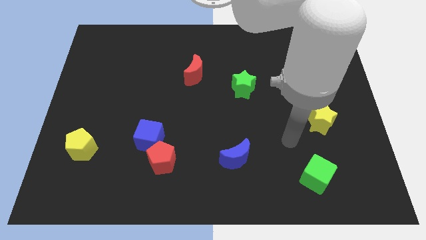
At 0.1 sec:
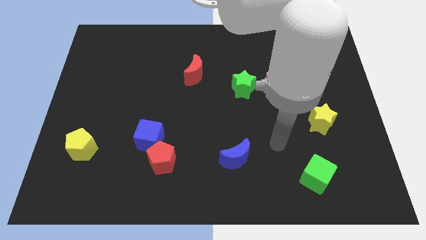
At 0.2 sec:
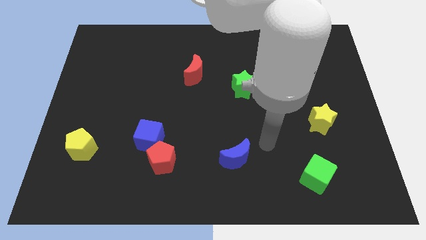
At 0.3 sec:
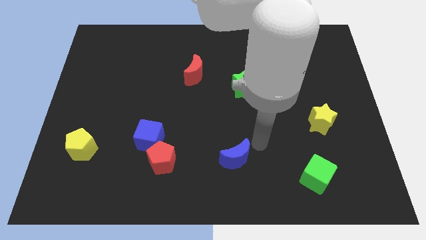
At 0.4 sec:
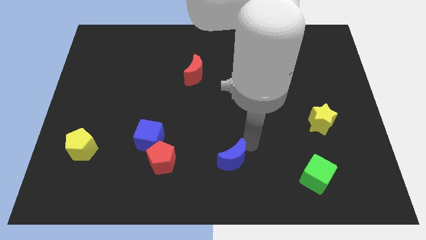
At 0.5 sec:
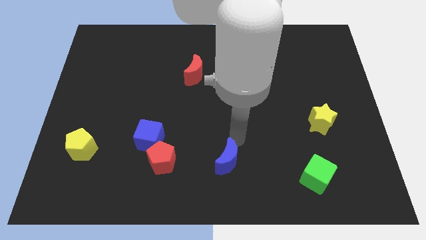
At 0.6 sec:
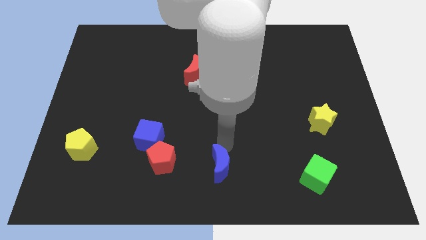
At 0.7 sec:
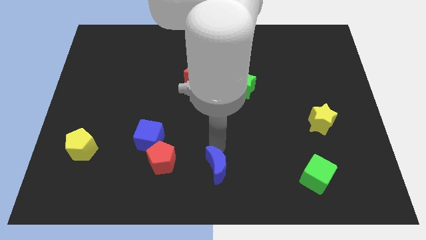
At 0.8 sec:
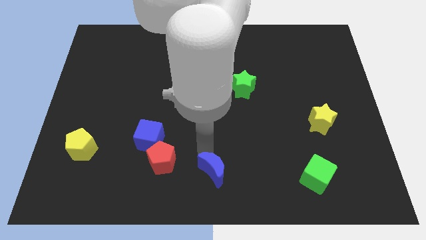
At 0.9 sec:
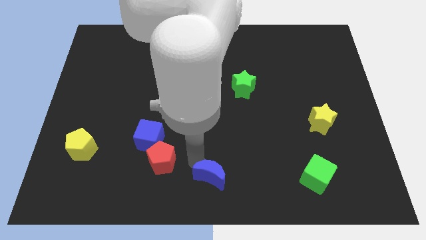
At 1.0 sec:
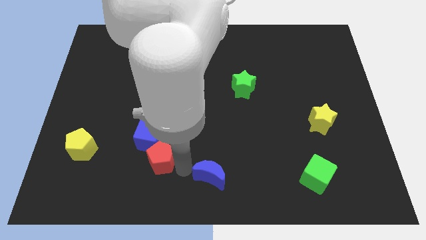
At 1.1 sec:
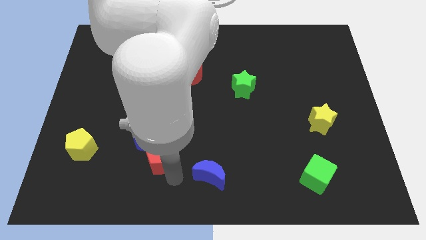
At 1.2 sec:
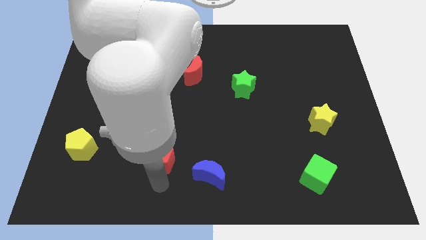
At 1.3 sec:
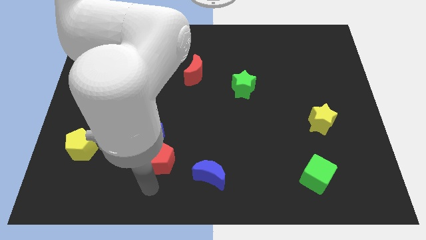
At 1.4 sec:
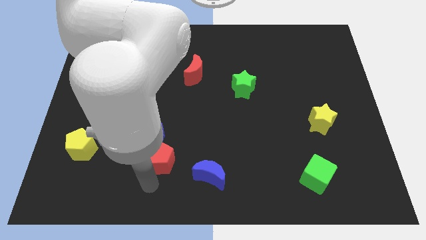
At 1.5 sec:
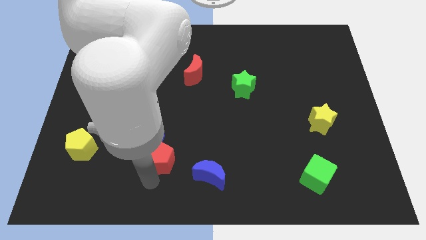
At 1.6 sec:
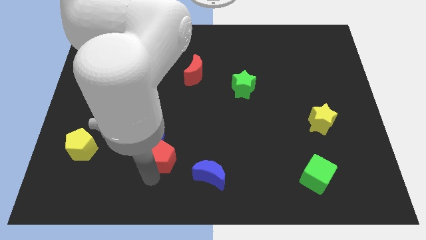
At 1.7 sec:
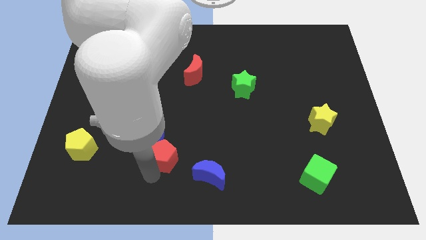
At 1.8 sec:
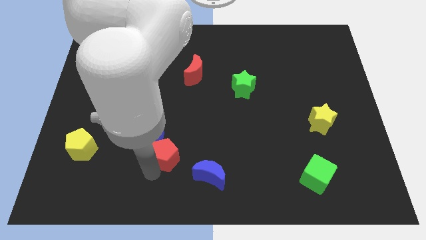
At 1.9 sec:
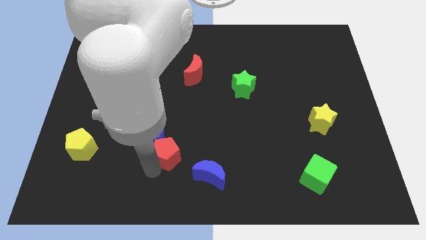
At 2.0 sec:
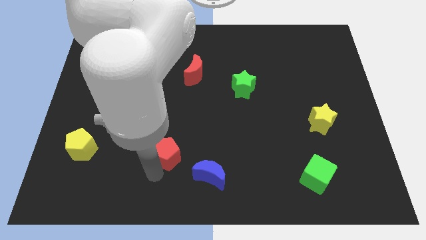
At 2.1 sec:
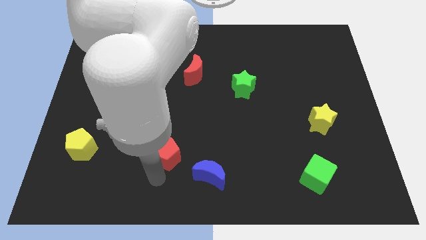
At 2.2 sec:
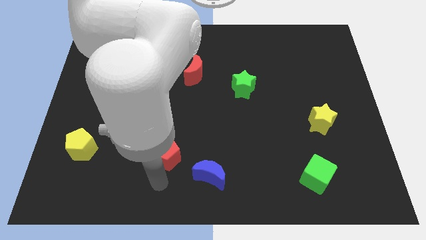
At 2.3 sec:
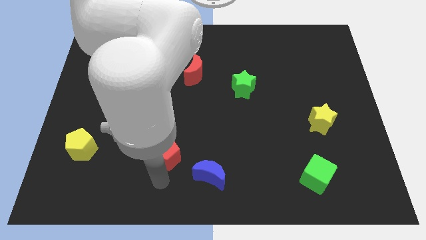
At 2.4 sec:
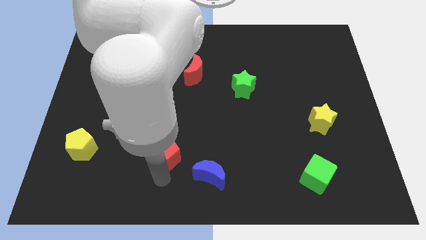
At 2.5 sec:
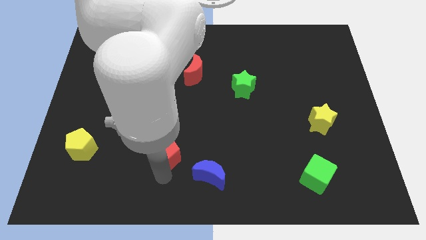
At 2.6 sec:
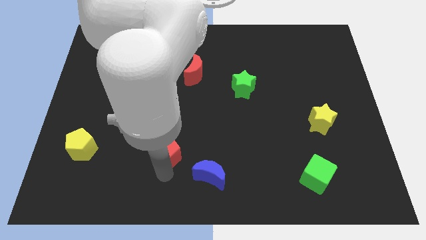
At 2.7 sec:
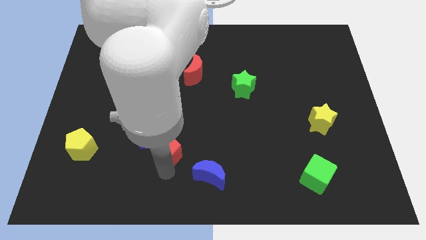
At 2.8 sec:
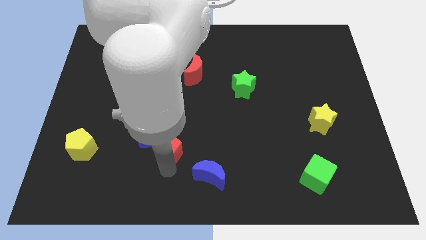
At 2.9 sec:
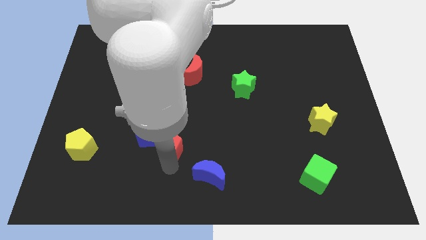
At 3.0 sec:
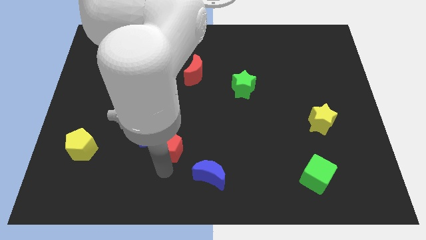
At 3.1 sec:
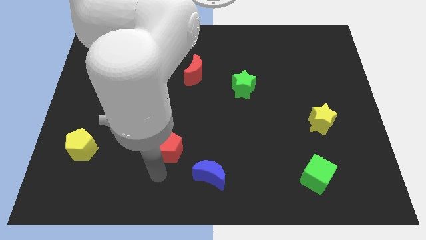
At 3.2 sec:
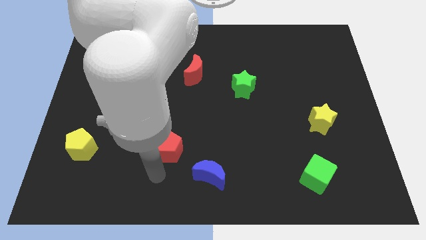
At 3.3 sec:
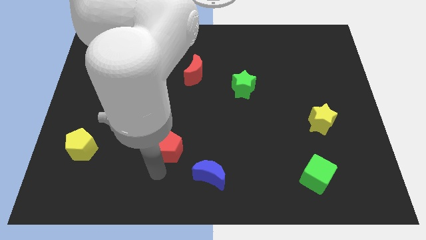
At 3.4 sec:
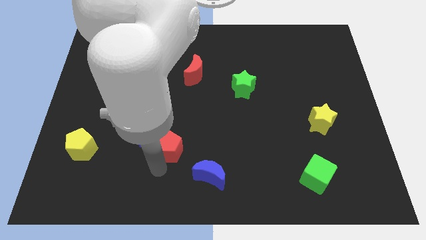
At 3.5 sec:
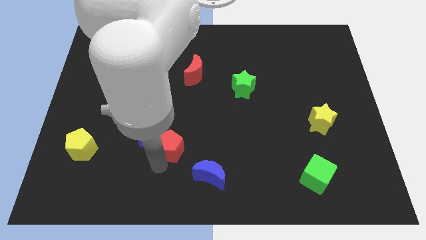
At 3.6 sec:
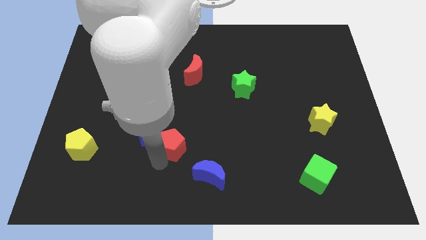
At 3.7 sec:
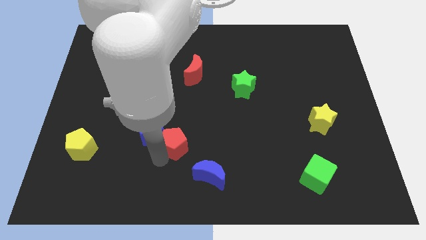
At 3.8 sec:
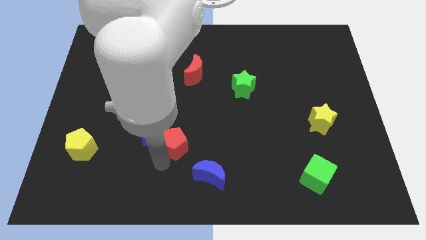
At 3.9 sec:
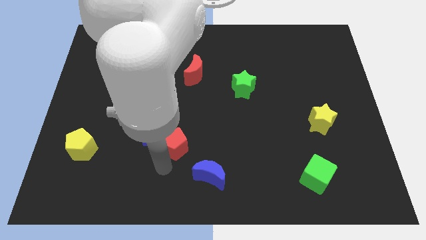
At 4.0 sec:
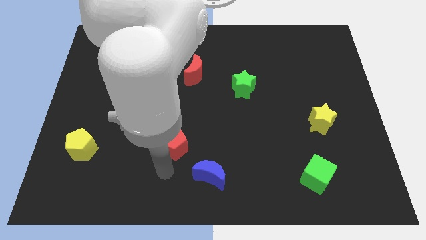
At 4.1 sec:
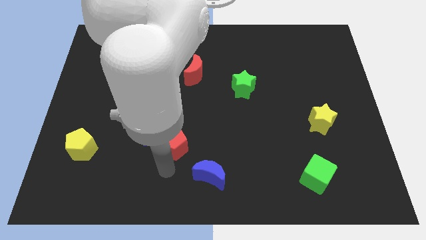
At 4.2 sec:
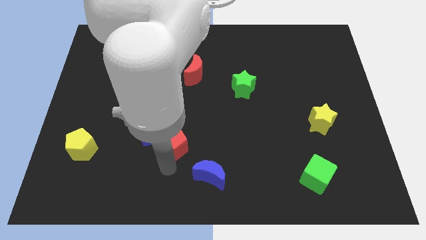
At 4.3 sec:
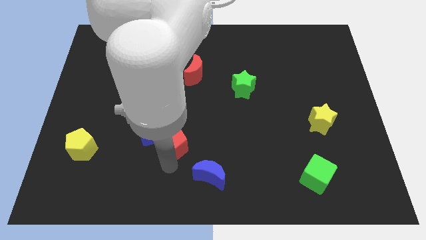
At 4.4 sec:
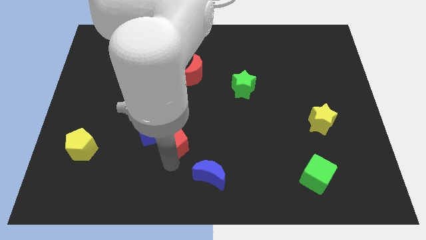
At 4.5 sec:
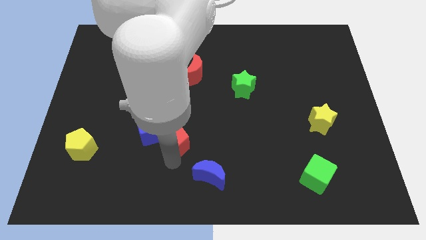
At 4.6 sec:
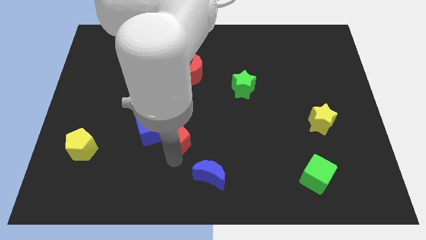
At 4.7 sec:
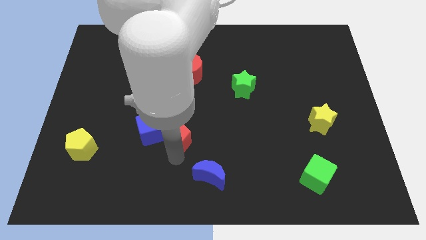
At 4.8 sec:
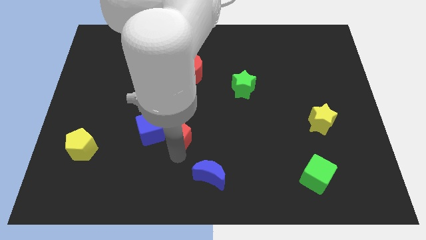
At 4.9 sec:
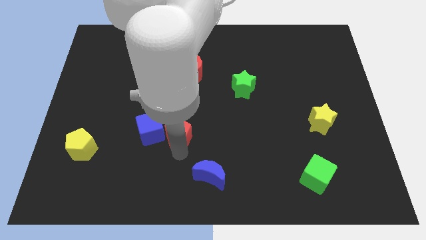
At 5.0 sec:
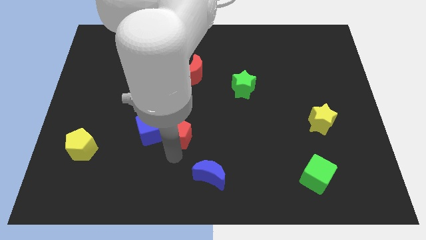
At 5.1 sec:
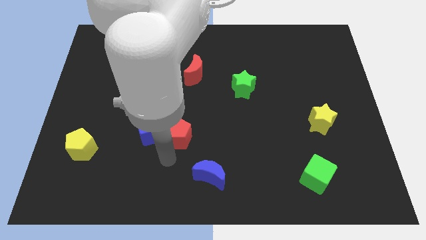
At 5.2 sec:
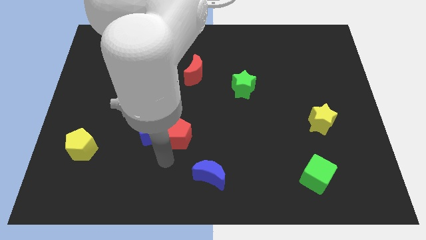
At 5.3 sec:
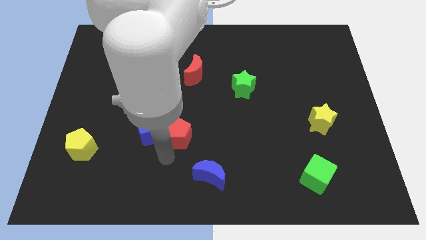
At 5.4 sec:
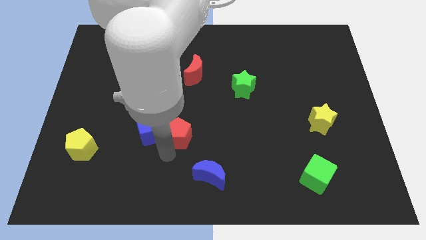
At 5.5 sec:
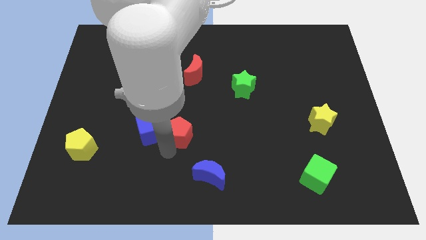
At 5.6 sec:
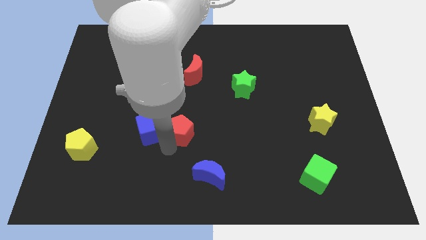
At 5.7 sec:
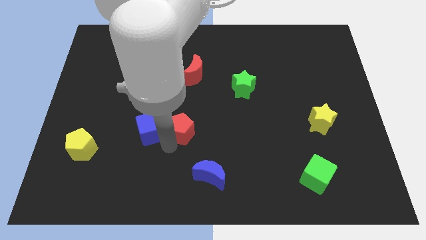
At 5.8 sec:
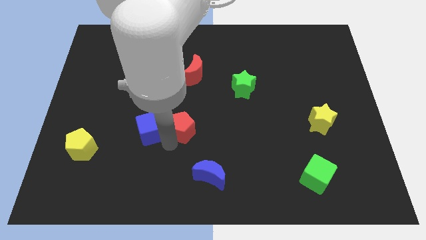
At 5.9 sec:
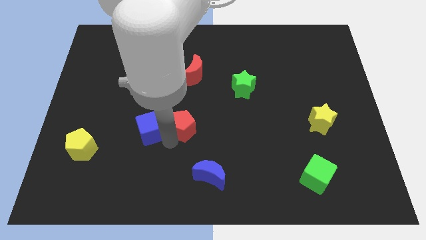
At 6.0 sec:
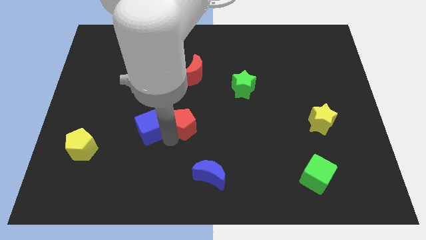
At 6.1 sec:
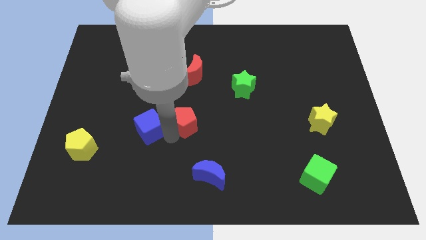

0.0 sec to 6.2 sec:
move the red pentagon to the bottom of the red moon

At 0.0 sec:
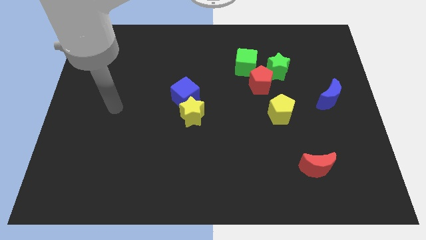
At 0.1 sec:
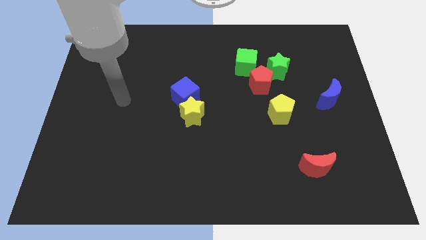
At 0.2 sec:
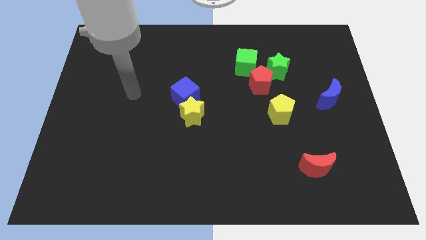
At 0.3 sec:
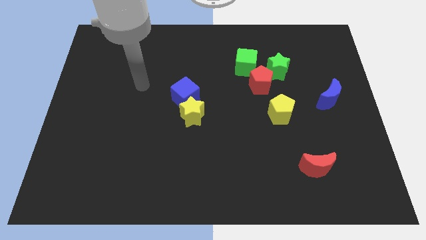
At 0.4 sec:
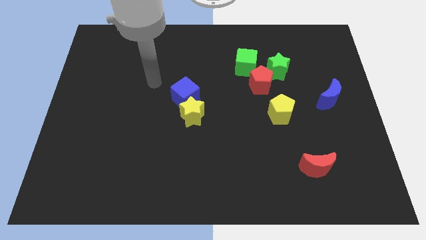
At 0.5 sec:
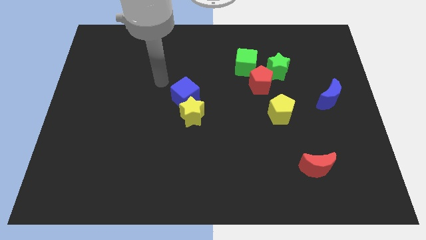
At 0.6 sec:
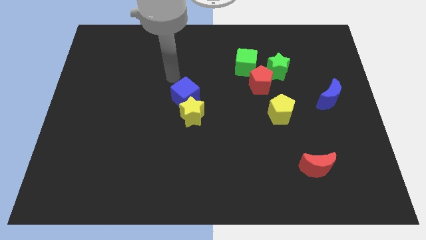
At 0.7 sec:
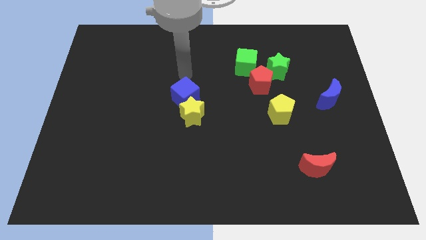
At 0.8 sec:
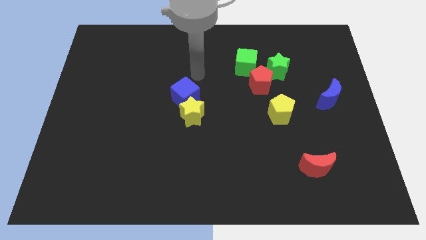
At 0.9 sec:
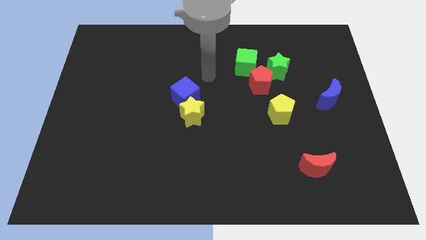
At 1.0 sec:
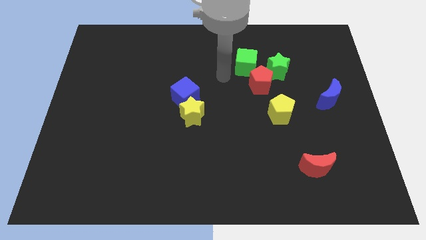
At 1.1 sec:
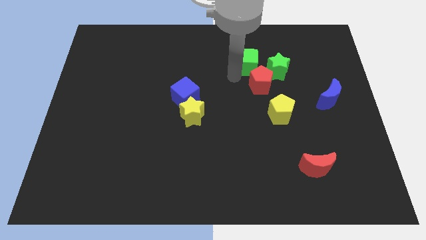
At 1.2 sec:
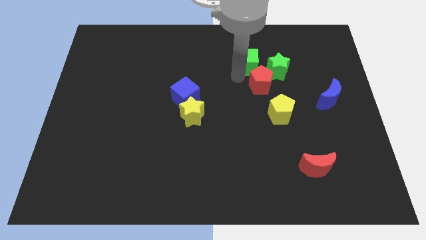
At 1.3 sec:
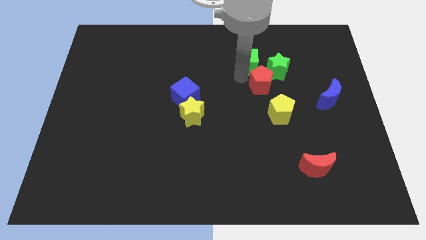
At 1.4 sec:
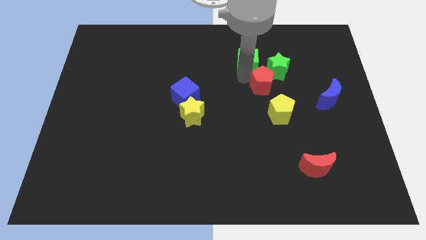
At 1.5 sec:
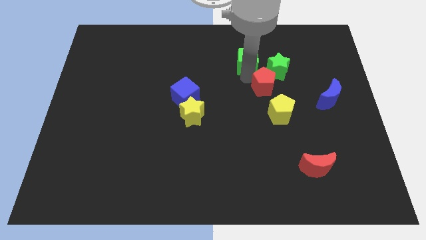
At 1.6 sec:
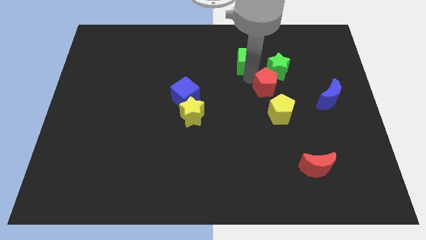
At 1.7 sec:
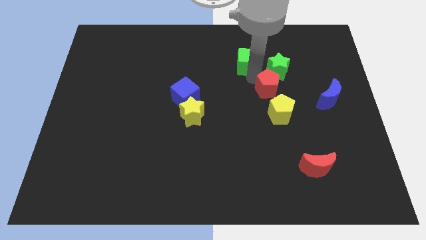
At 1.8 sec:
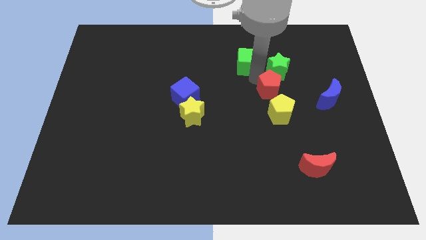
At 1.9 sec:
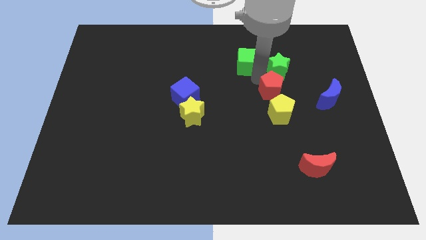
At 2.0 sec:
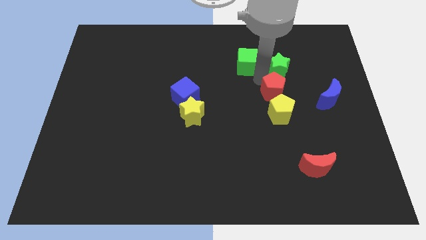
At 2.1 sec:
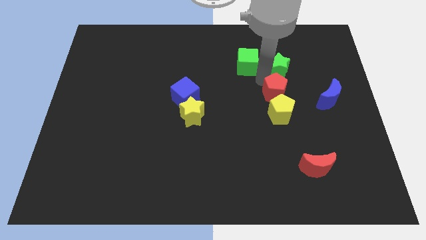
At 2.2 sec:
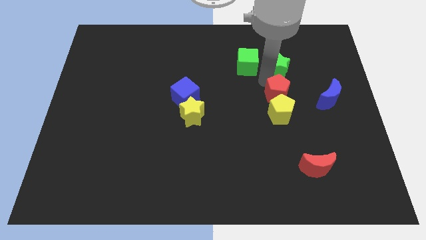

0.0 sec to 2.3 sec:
slide the red pentagon to the top right of the yellow pentagon
